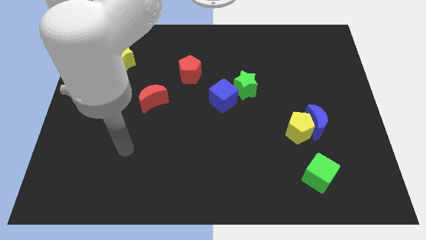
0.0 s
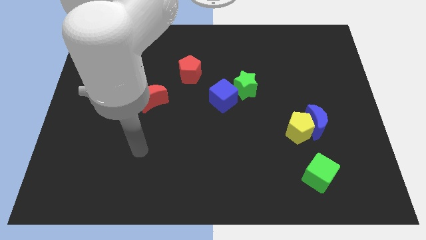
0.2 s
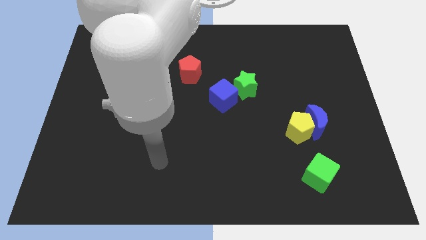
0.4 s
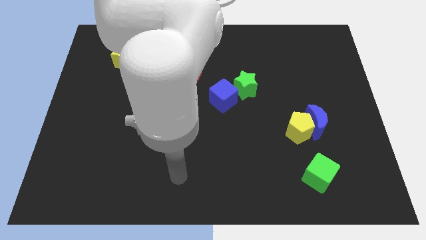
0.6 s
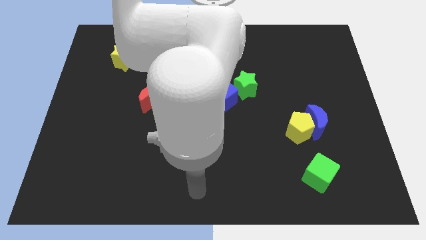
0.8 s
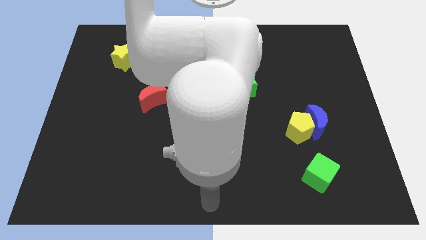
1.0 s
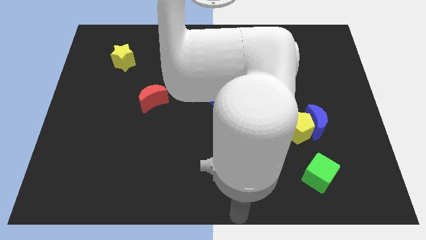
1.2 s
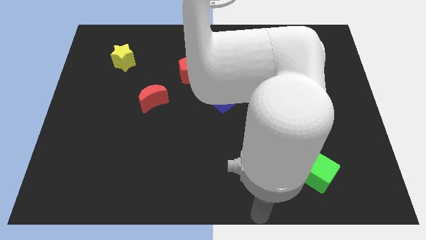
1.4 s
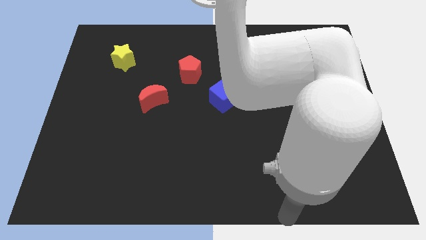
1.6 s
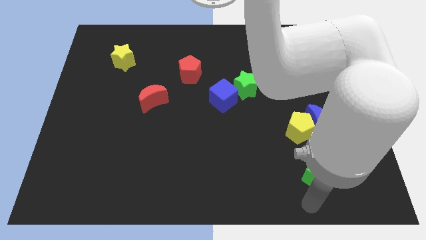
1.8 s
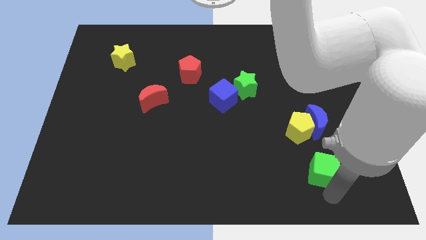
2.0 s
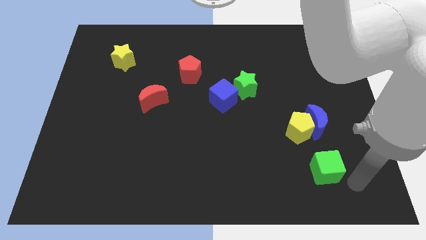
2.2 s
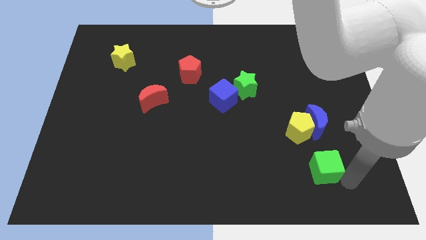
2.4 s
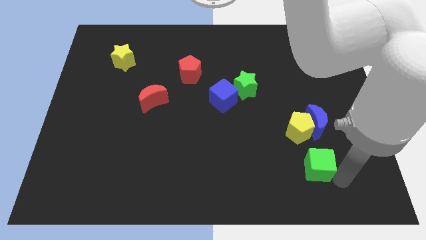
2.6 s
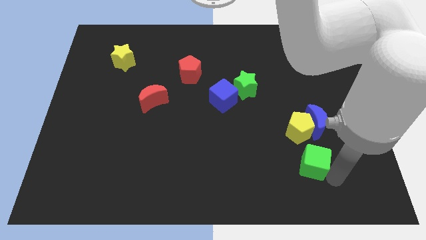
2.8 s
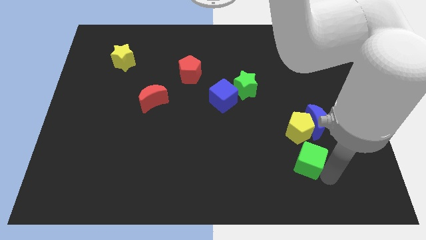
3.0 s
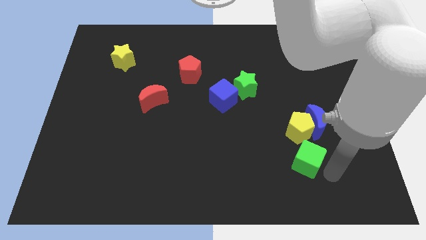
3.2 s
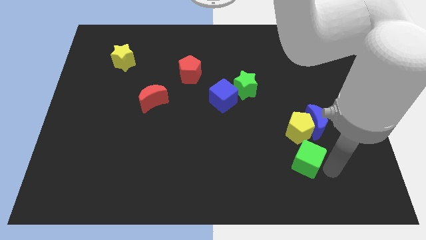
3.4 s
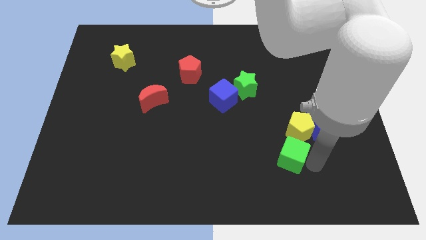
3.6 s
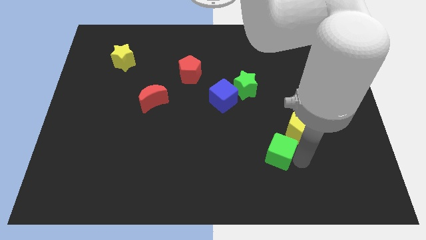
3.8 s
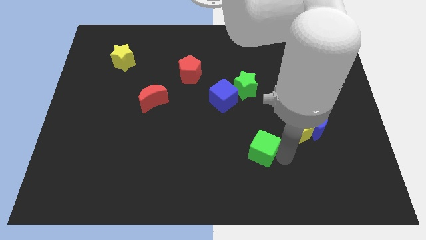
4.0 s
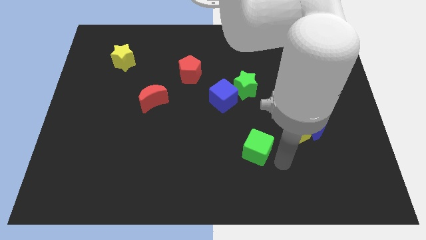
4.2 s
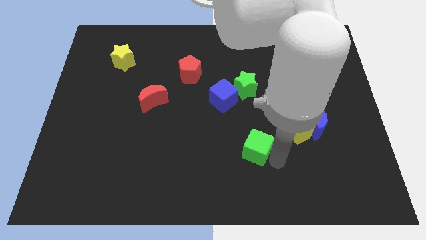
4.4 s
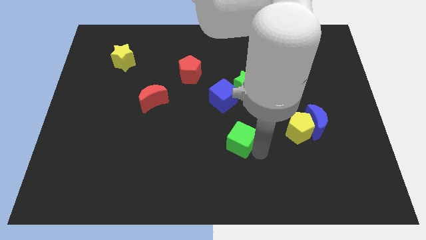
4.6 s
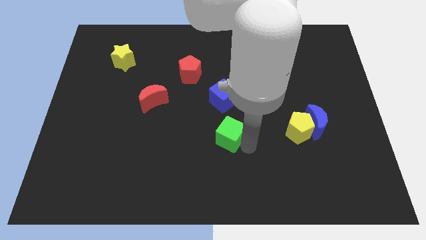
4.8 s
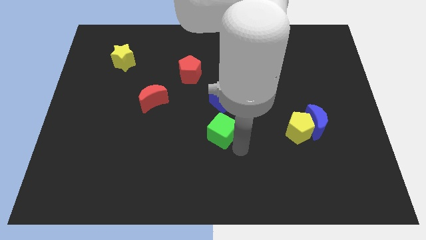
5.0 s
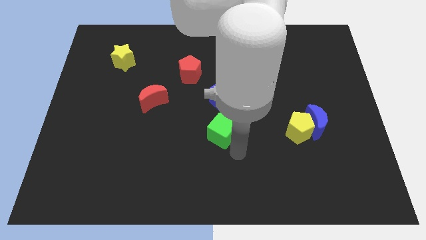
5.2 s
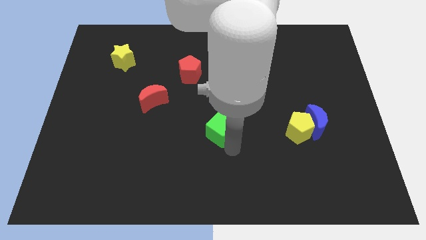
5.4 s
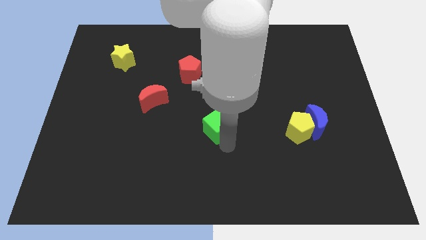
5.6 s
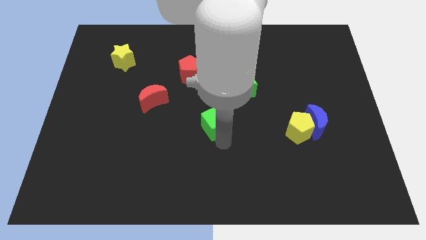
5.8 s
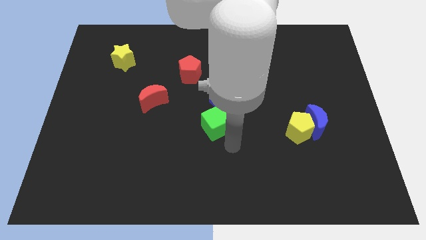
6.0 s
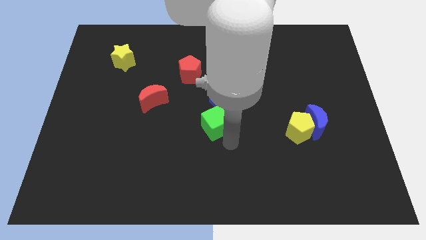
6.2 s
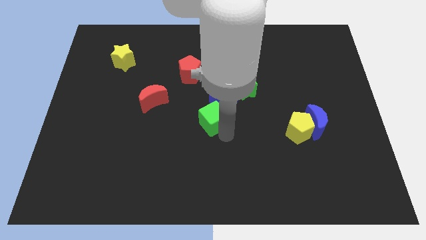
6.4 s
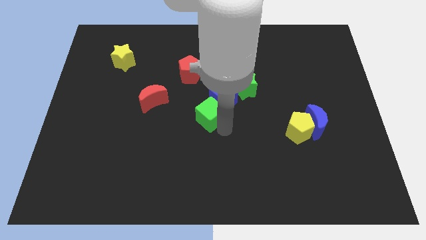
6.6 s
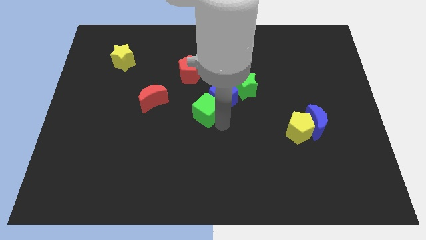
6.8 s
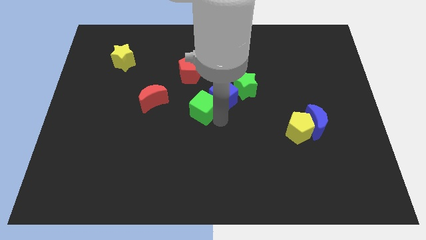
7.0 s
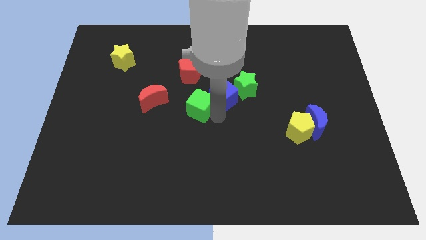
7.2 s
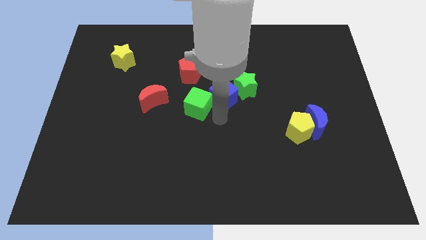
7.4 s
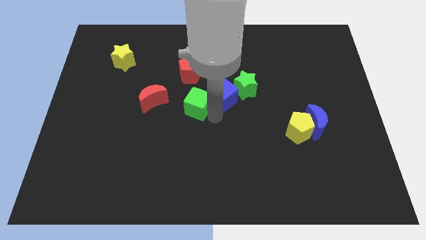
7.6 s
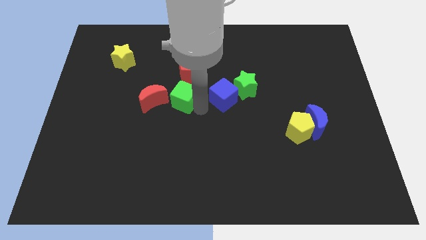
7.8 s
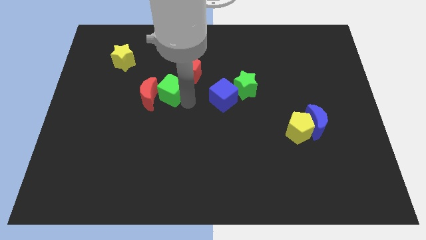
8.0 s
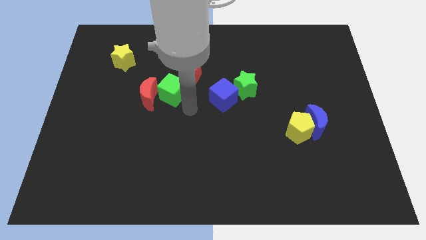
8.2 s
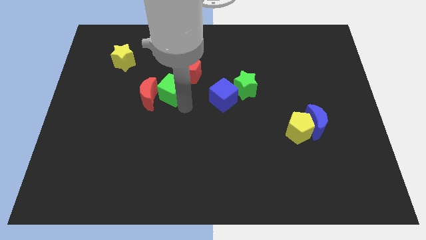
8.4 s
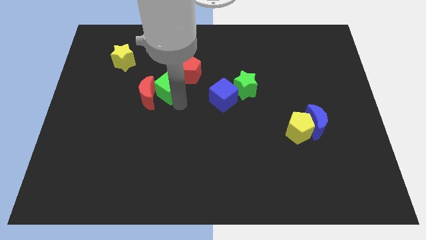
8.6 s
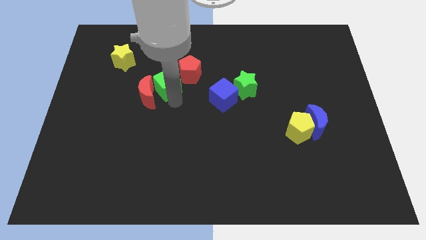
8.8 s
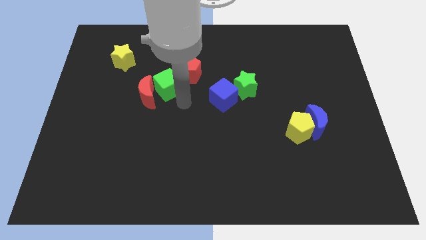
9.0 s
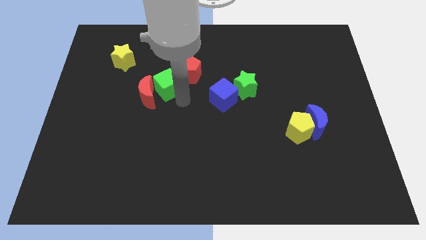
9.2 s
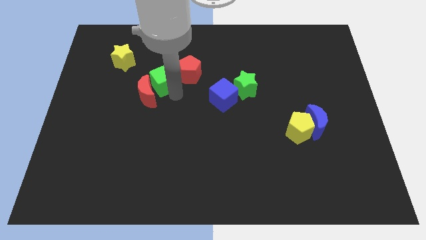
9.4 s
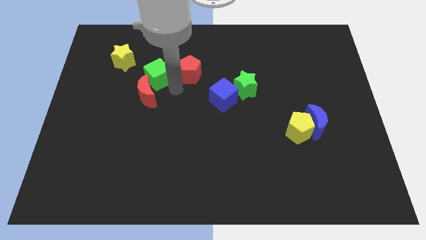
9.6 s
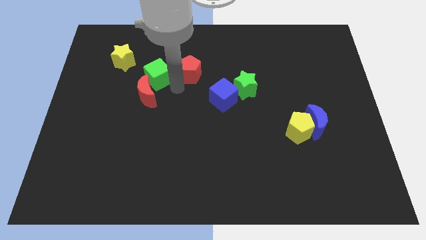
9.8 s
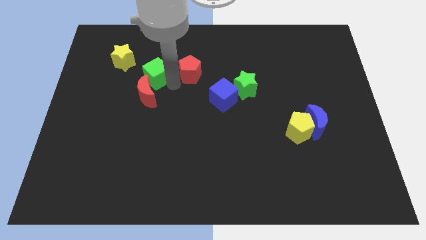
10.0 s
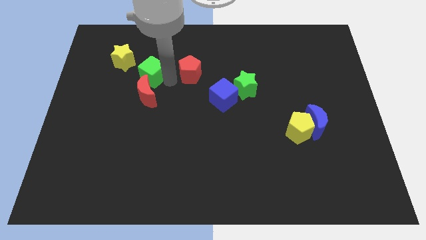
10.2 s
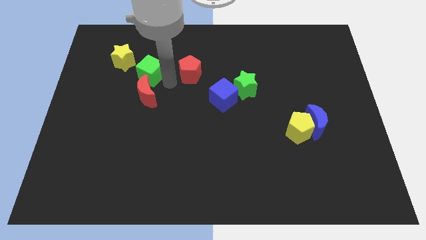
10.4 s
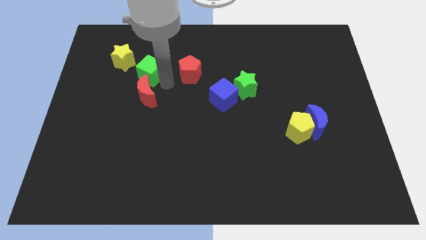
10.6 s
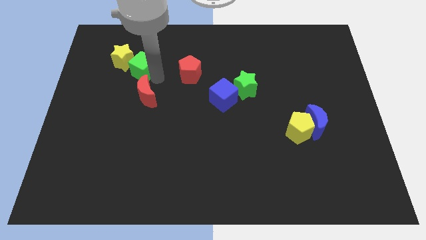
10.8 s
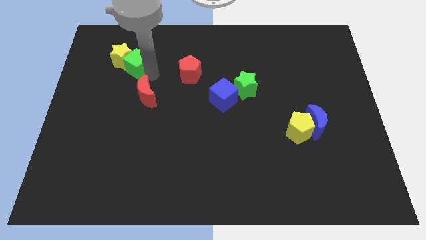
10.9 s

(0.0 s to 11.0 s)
slide the green cube towards the yellow star

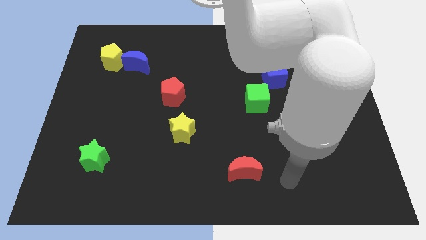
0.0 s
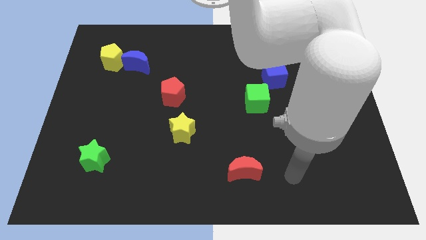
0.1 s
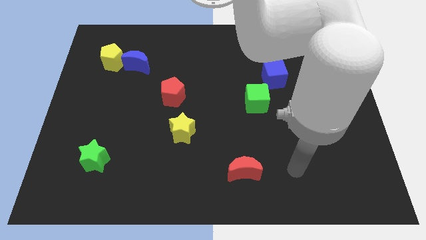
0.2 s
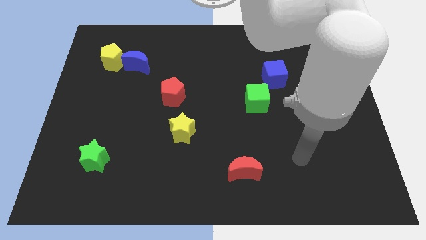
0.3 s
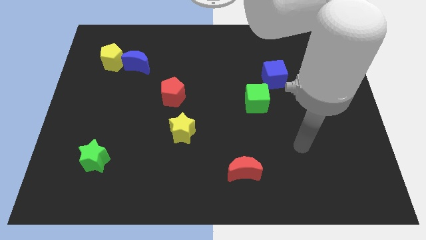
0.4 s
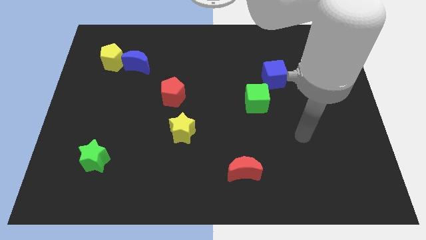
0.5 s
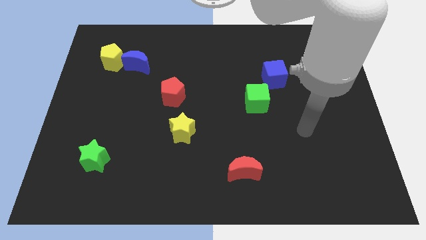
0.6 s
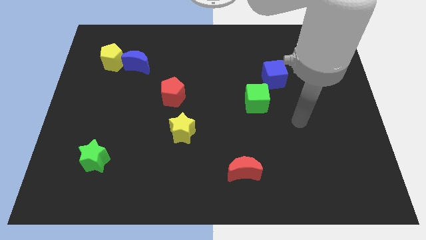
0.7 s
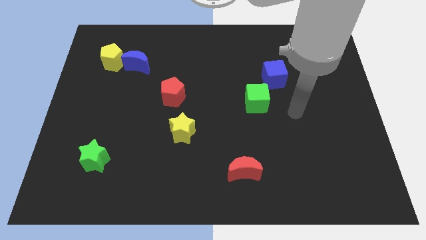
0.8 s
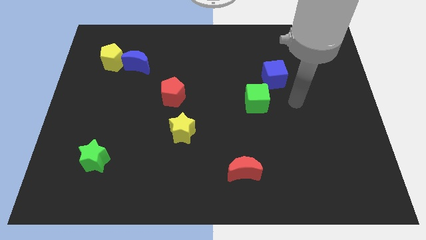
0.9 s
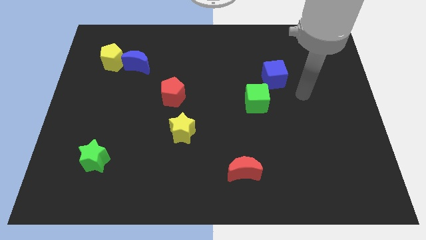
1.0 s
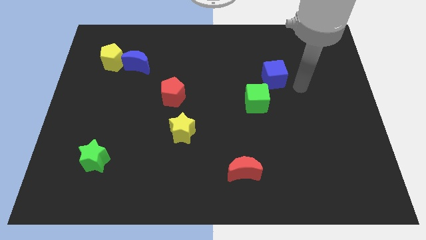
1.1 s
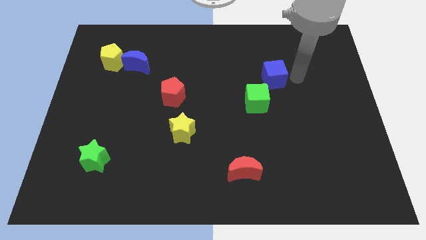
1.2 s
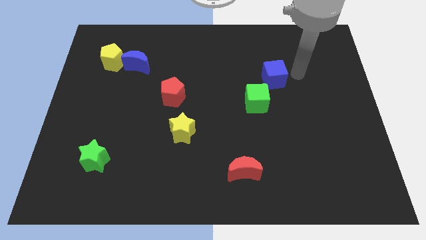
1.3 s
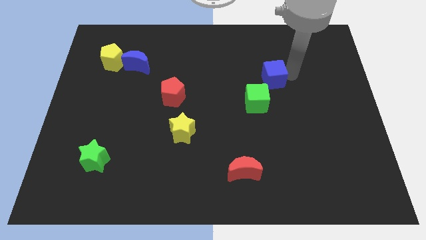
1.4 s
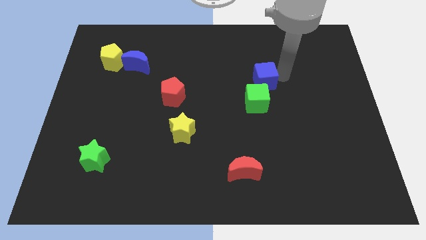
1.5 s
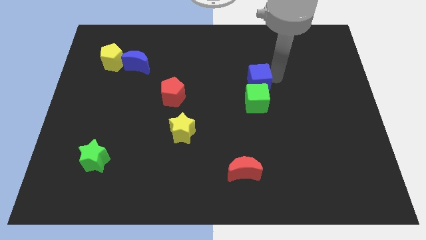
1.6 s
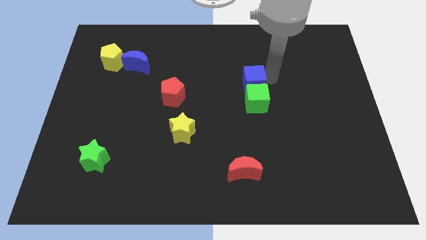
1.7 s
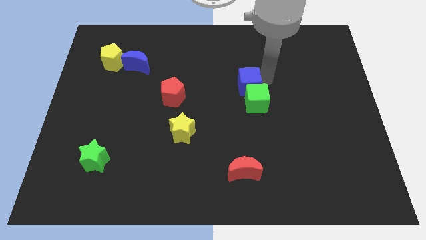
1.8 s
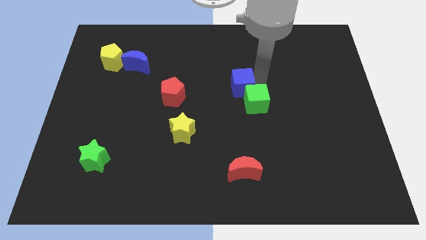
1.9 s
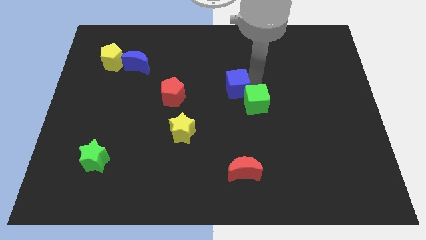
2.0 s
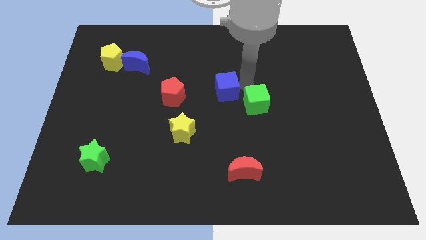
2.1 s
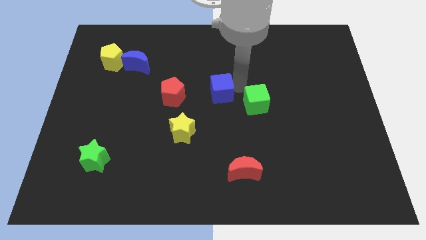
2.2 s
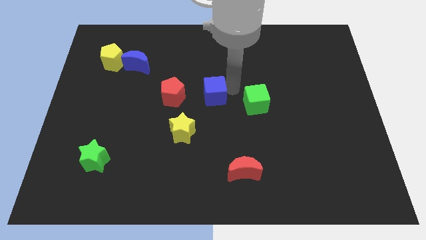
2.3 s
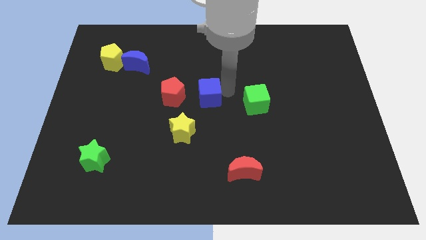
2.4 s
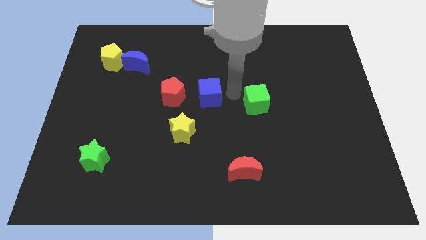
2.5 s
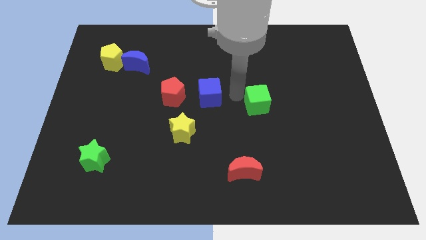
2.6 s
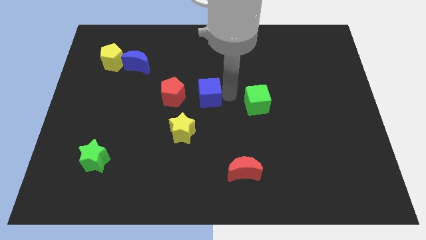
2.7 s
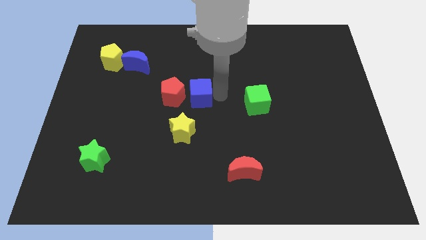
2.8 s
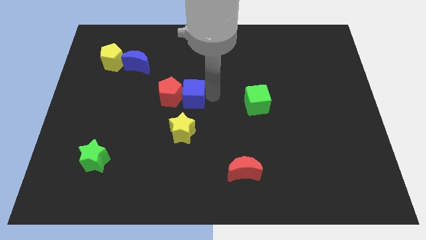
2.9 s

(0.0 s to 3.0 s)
put the blue cube towards the red pentagon
